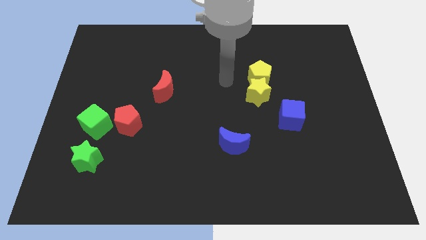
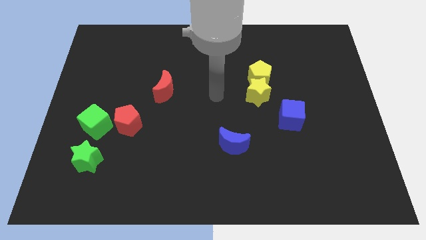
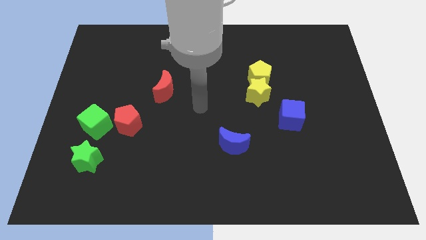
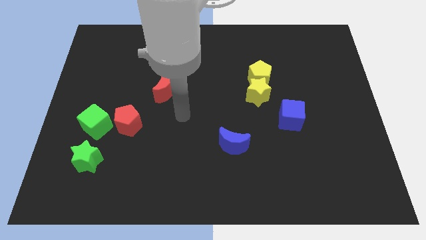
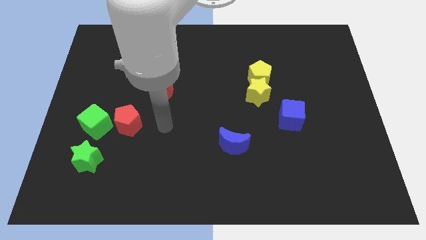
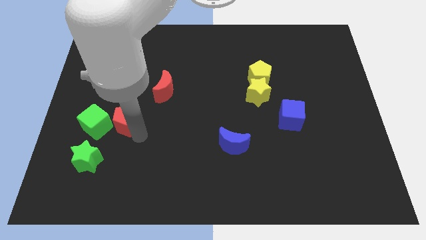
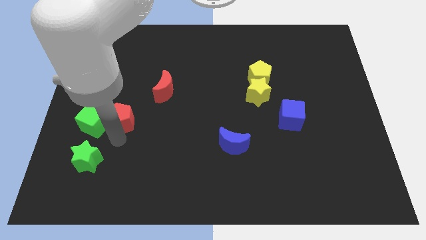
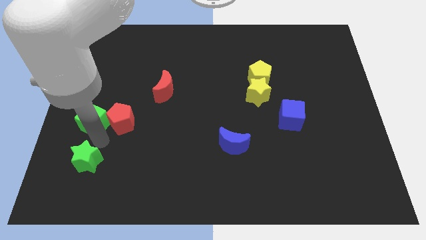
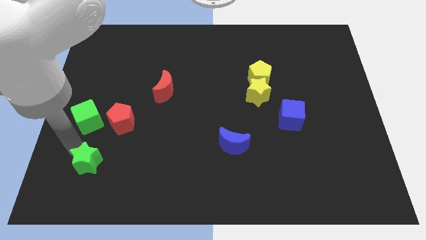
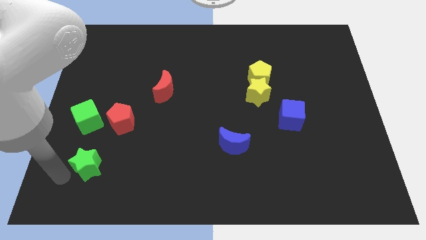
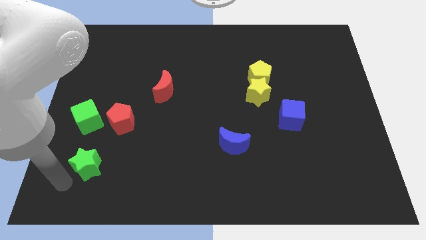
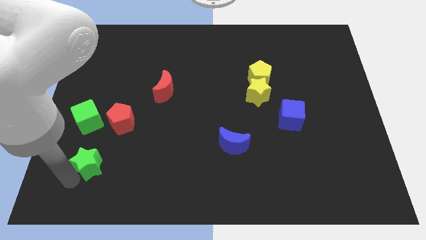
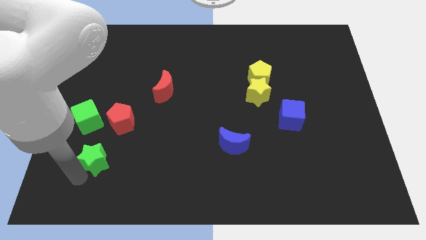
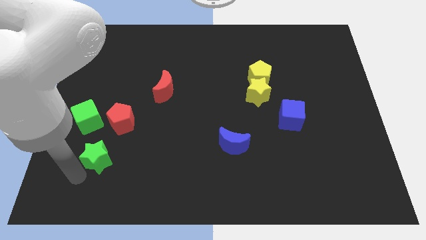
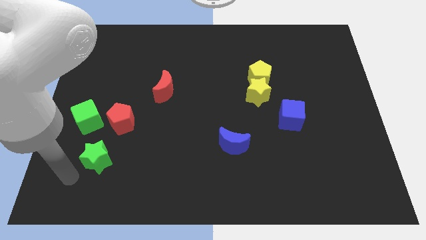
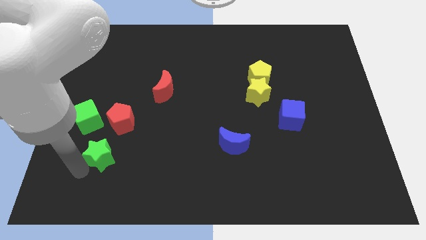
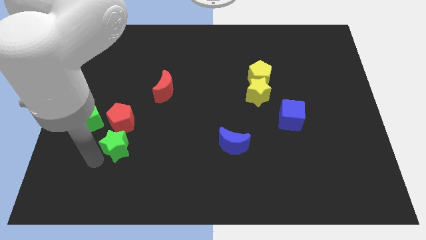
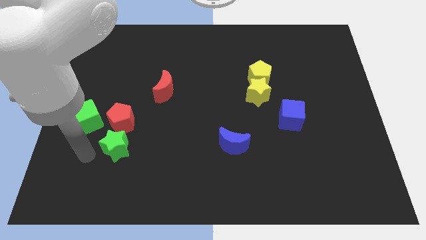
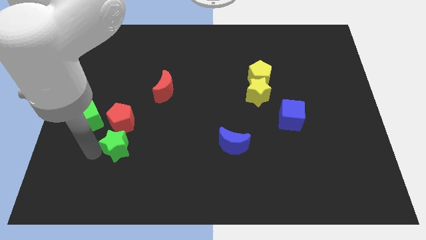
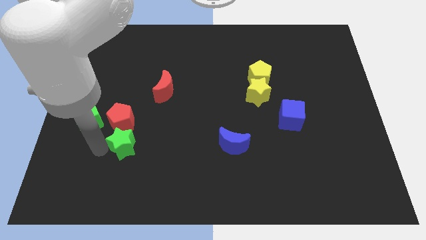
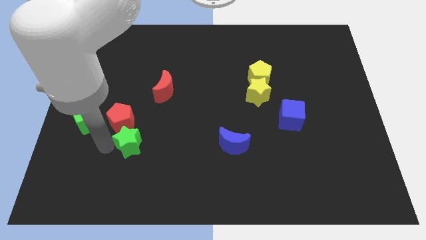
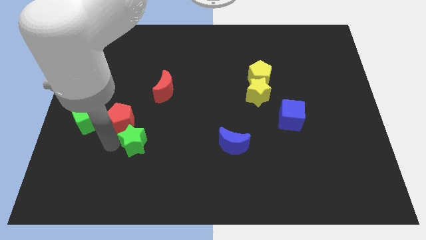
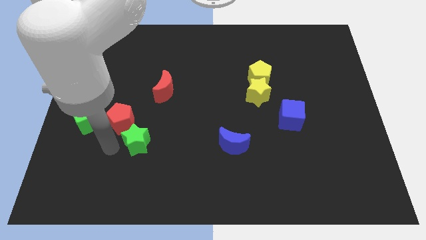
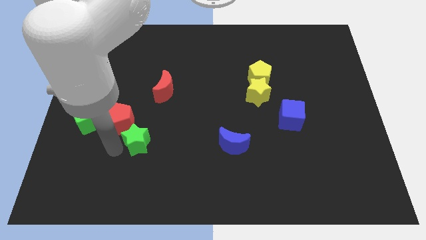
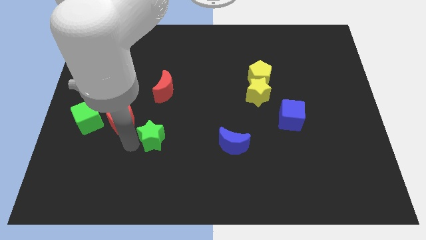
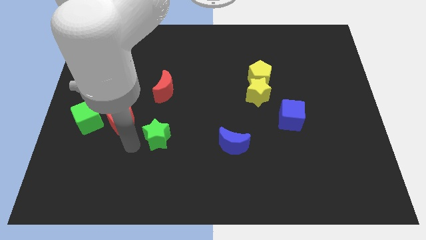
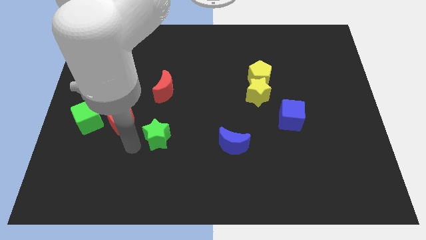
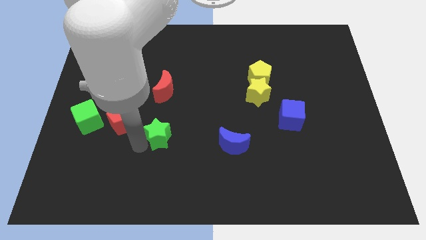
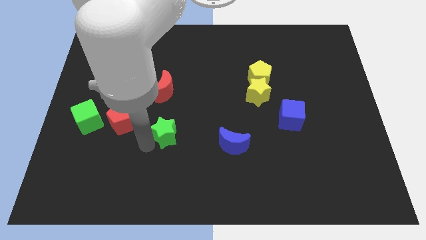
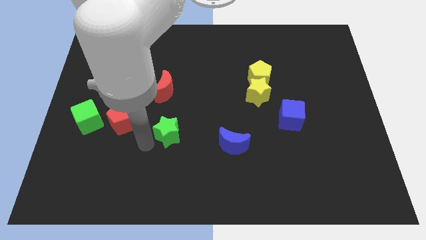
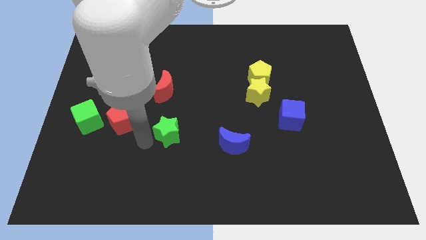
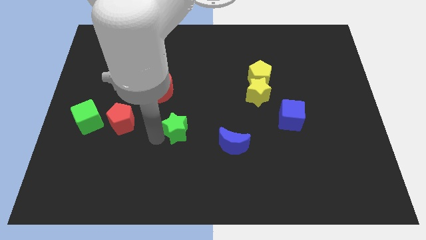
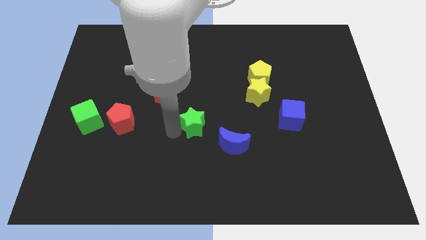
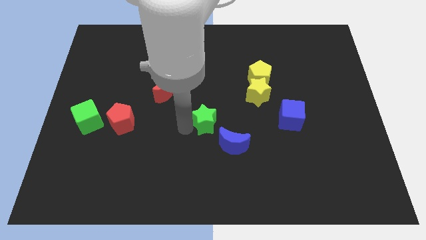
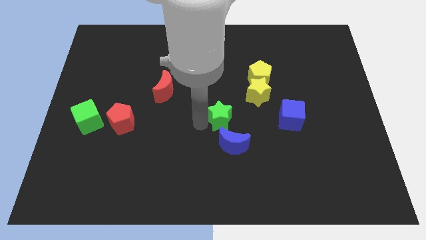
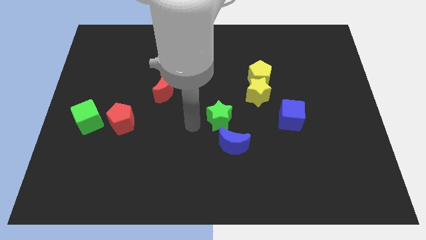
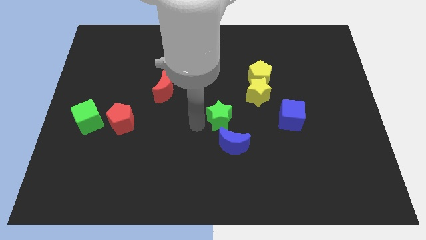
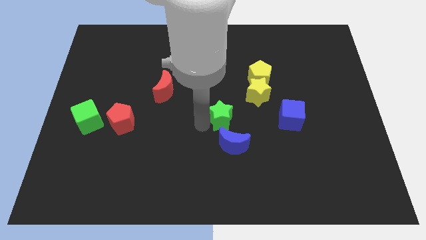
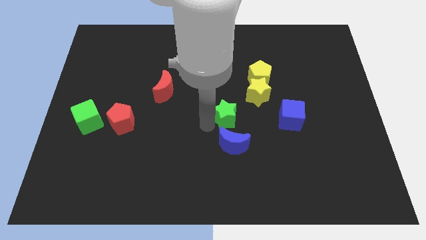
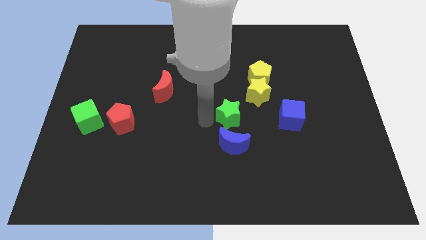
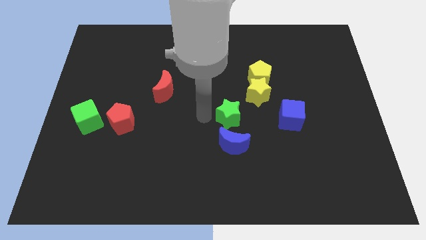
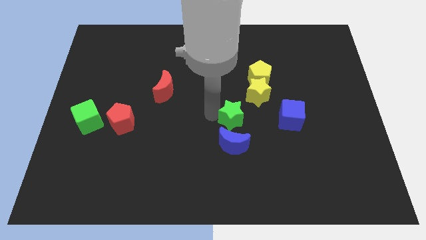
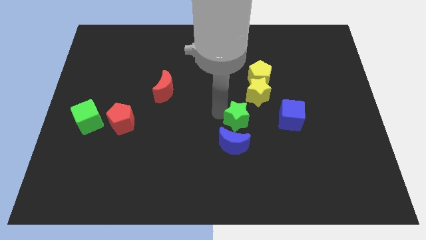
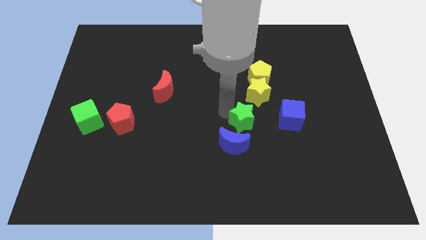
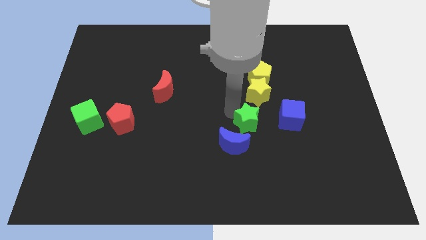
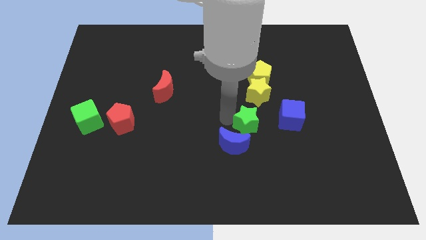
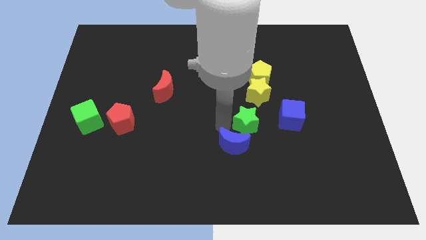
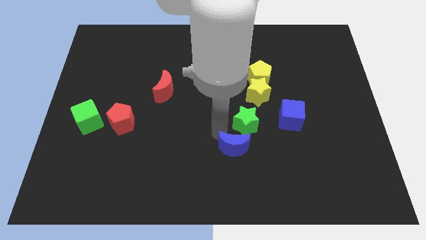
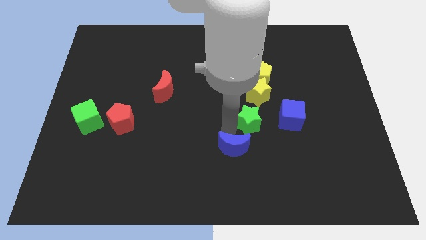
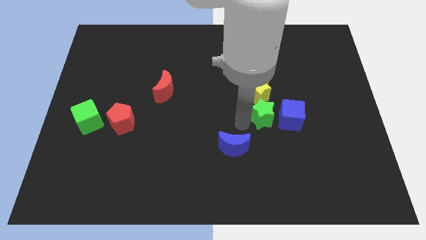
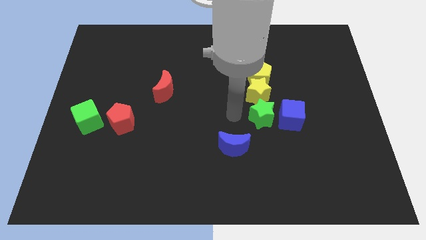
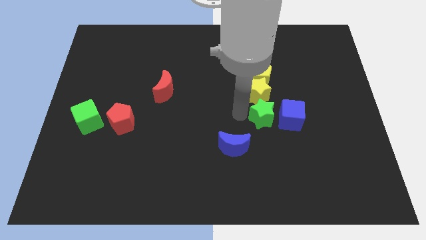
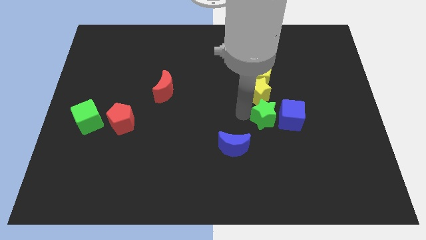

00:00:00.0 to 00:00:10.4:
move the green star close to the blue cube

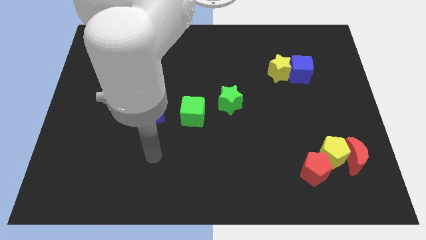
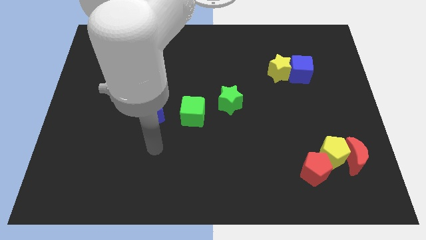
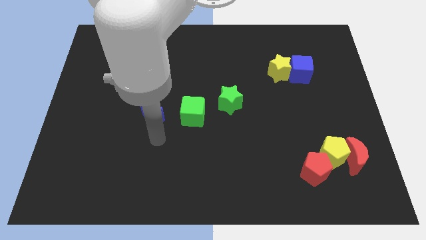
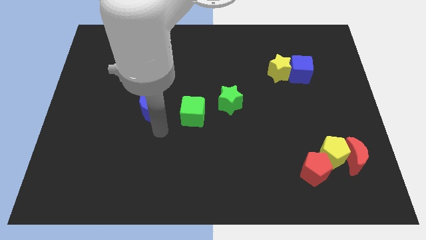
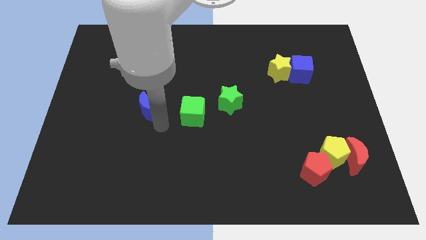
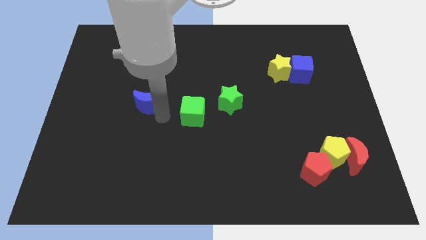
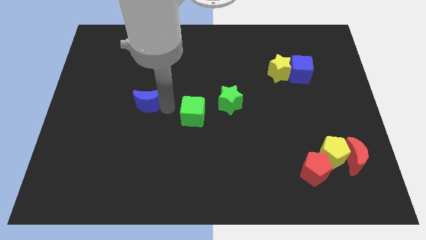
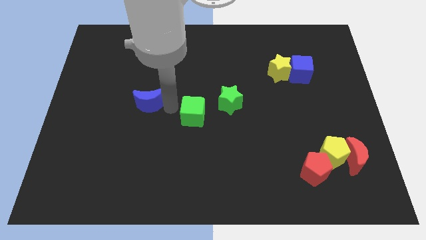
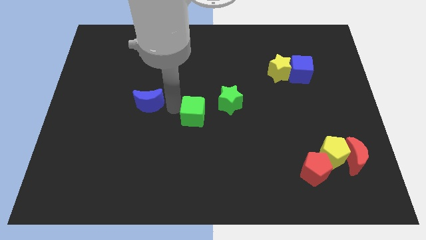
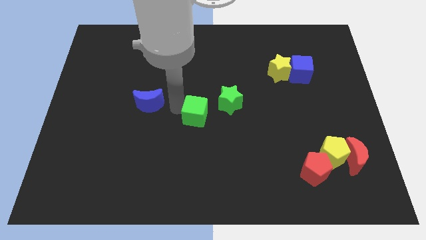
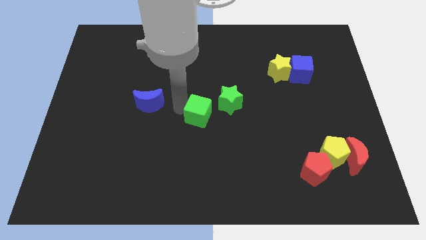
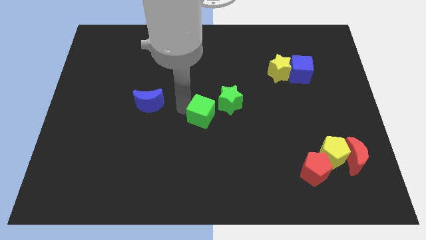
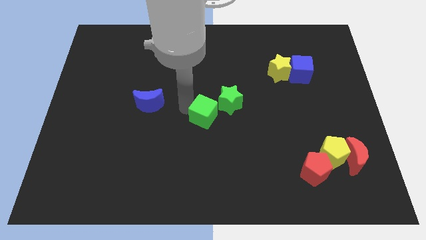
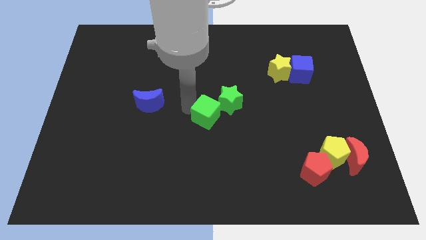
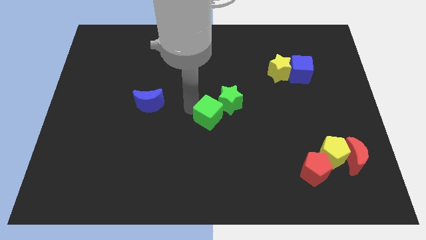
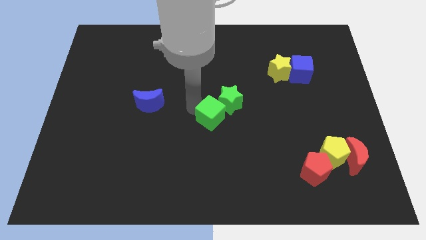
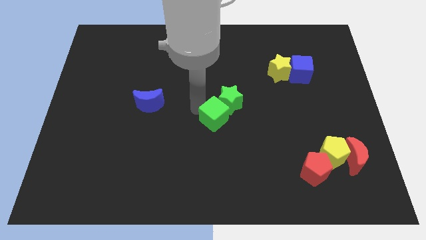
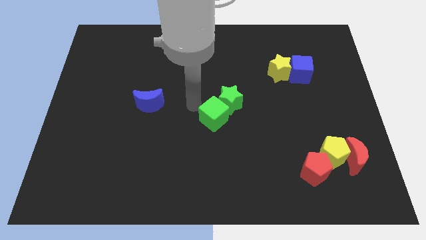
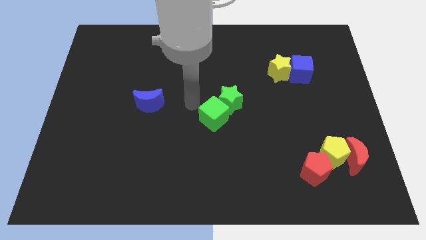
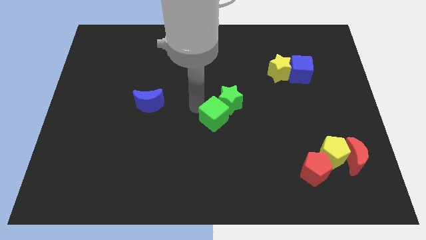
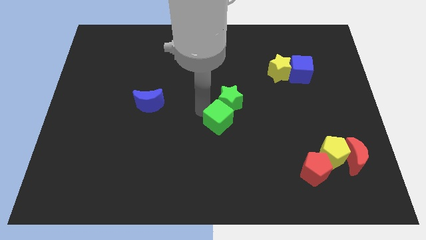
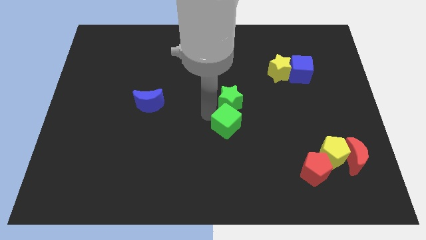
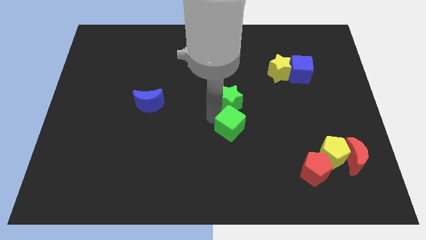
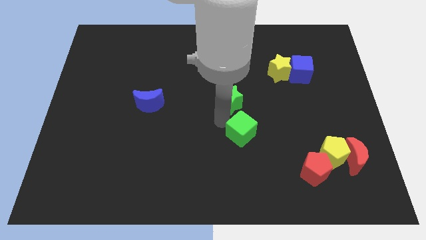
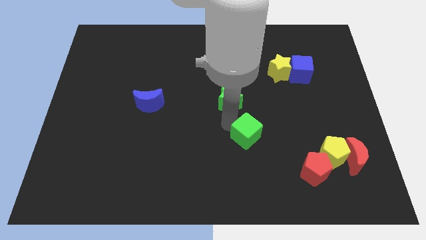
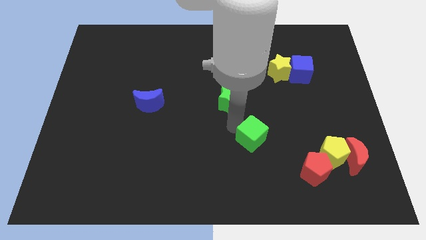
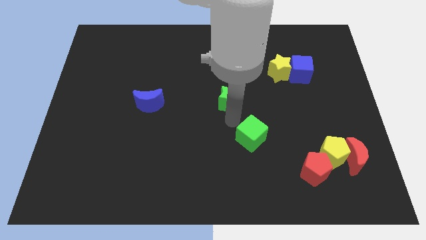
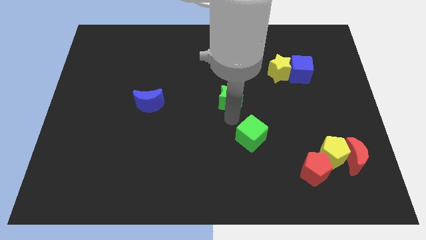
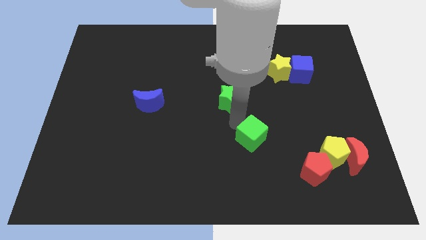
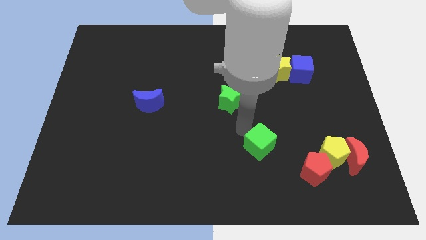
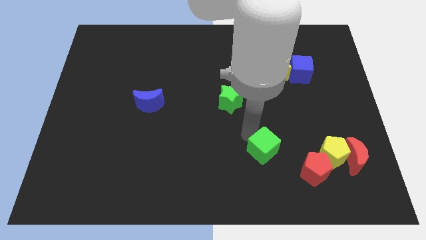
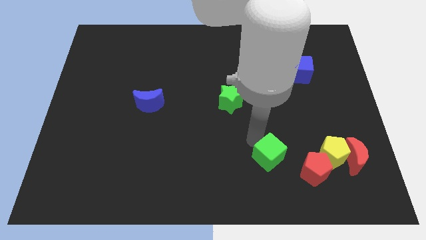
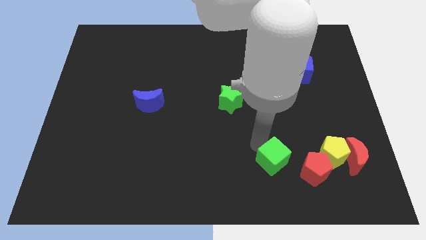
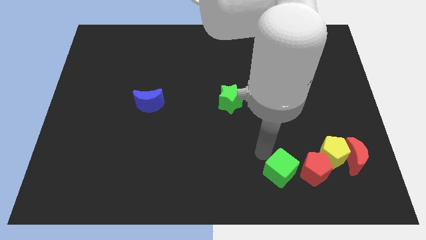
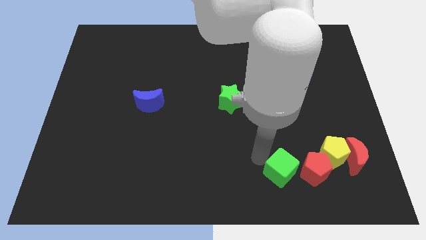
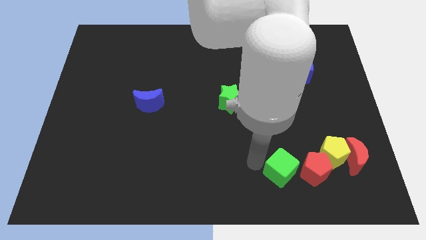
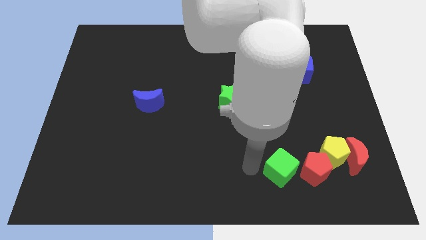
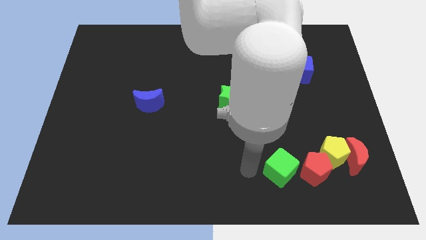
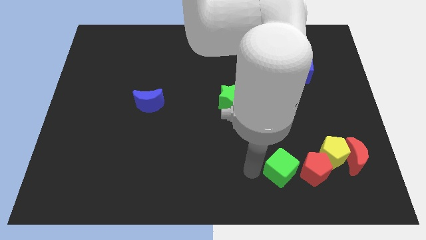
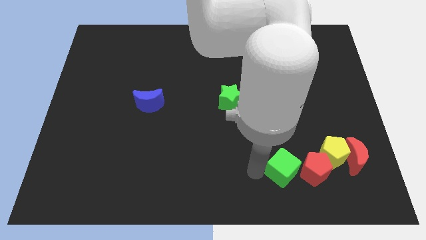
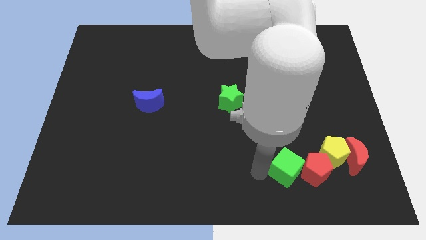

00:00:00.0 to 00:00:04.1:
slide the green cube to the red pentagon
